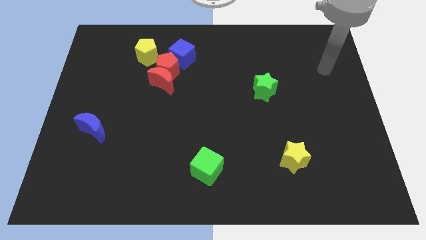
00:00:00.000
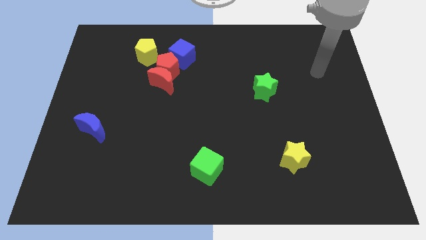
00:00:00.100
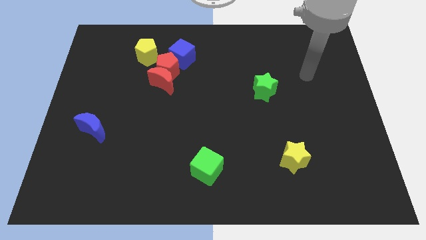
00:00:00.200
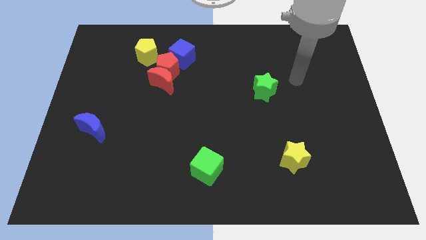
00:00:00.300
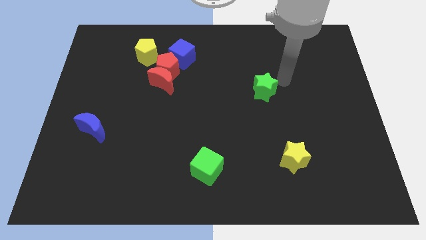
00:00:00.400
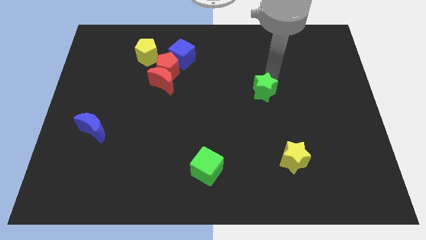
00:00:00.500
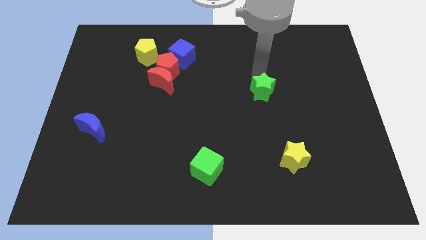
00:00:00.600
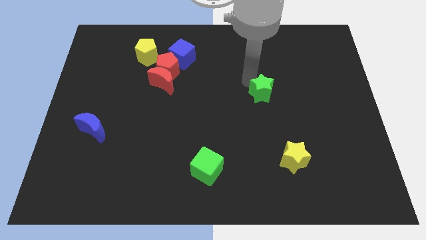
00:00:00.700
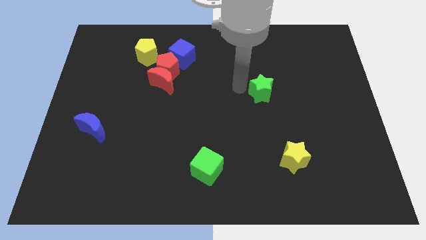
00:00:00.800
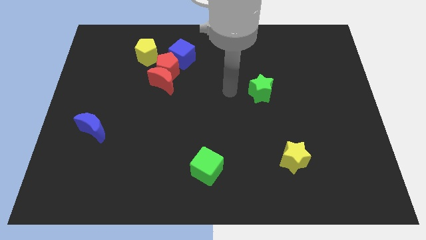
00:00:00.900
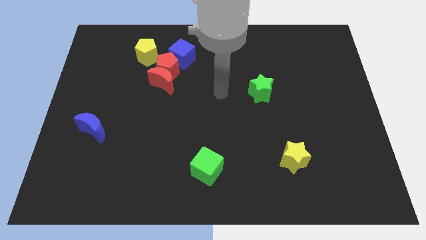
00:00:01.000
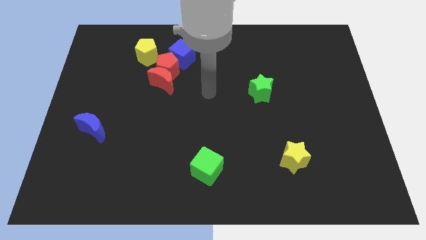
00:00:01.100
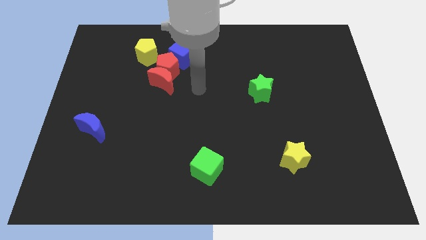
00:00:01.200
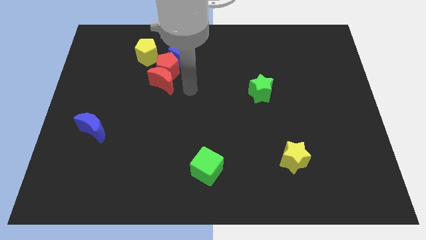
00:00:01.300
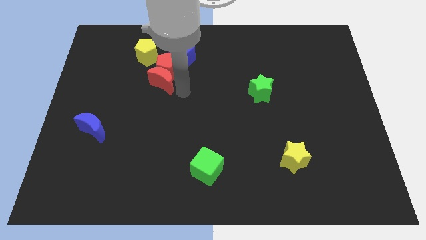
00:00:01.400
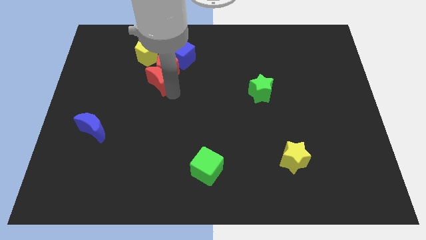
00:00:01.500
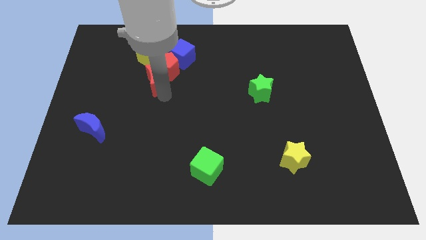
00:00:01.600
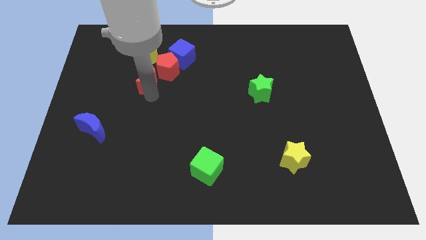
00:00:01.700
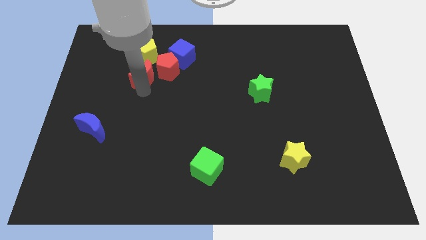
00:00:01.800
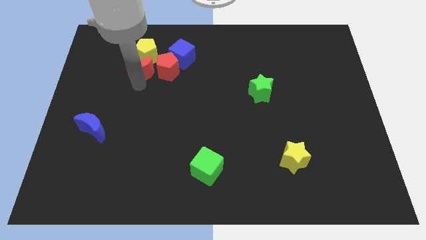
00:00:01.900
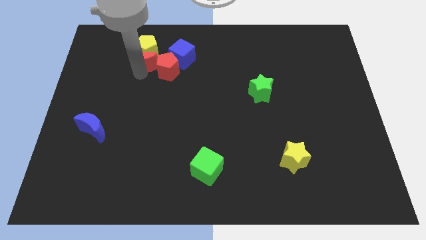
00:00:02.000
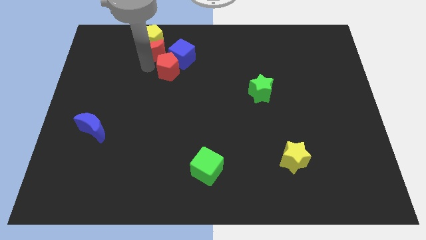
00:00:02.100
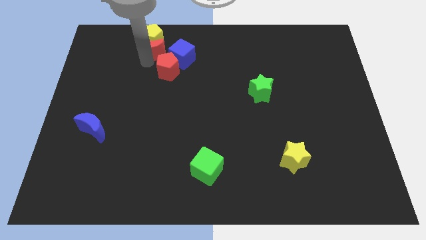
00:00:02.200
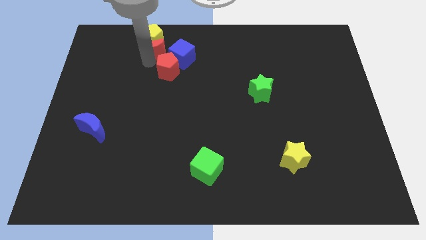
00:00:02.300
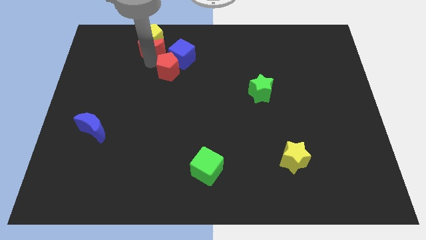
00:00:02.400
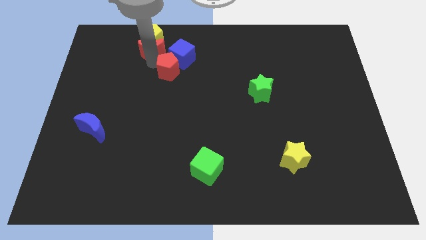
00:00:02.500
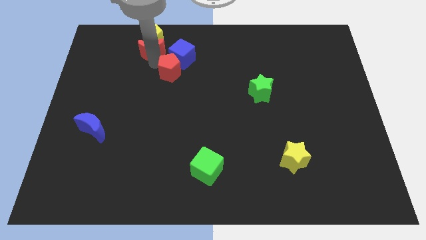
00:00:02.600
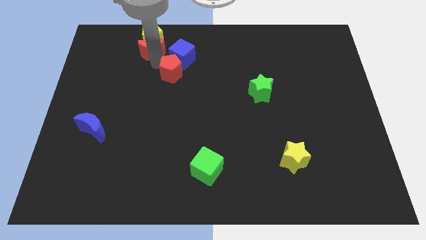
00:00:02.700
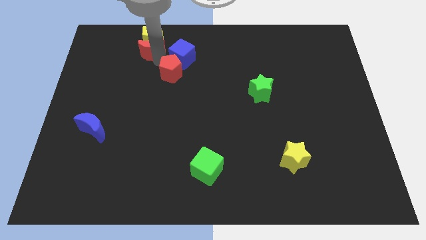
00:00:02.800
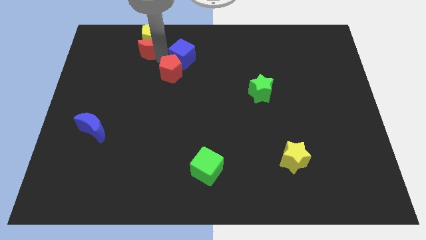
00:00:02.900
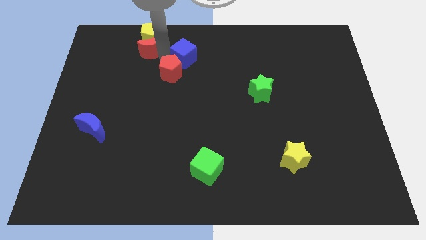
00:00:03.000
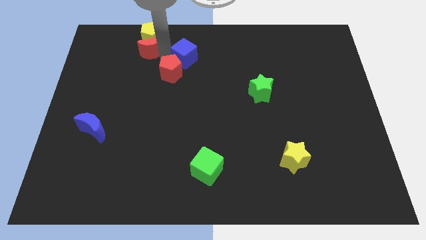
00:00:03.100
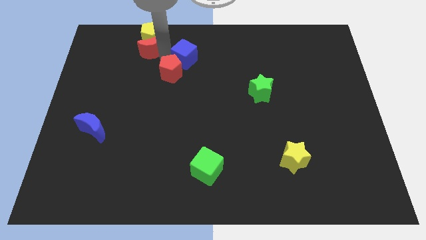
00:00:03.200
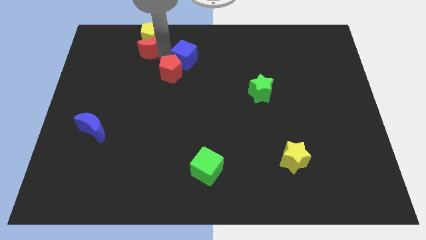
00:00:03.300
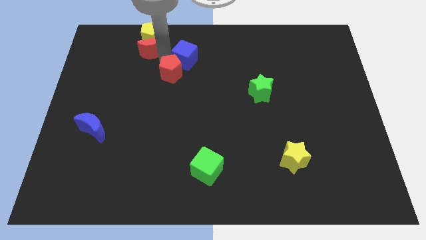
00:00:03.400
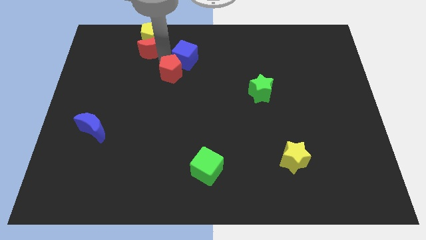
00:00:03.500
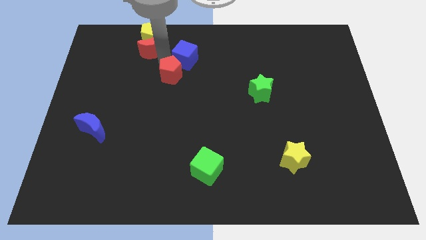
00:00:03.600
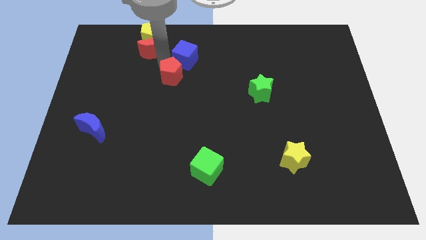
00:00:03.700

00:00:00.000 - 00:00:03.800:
pull the red pentagon apart from the red moon, blue cube, and yellow pentagon

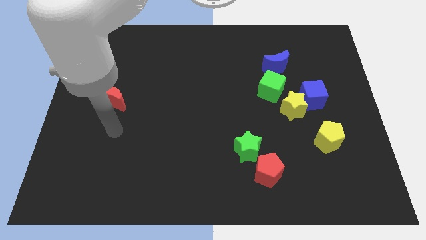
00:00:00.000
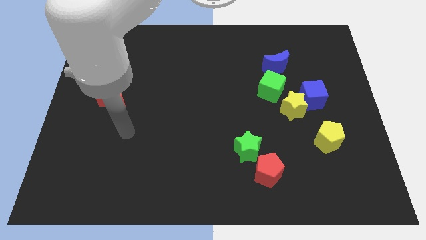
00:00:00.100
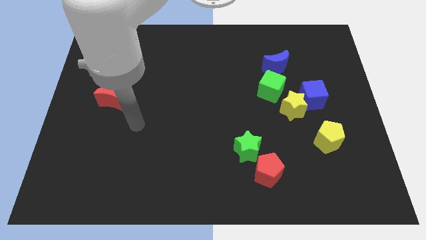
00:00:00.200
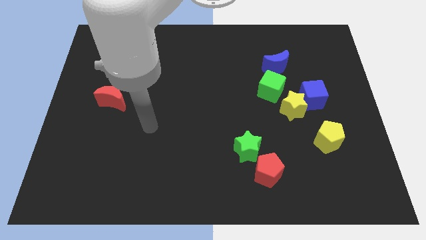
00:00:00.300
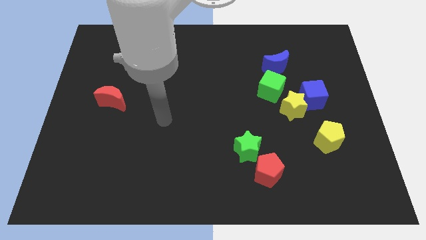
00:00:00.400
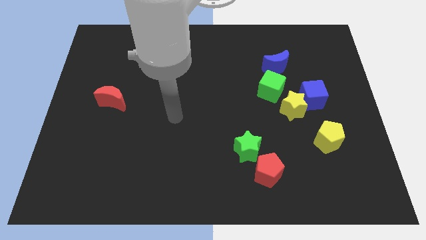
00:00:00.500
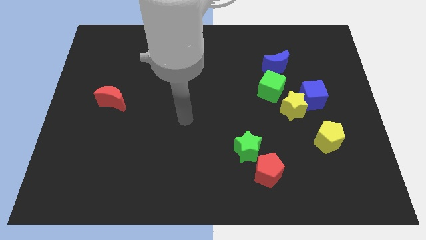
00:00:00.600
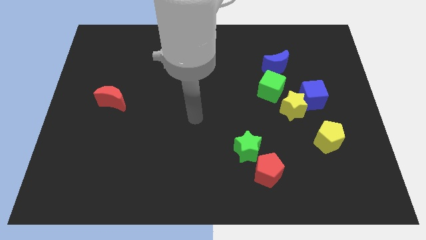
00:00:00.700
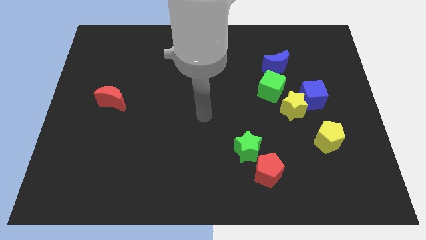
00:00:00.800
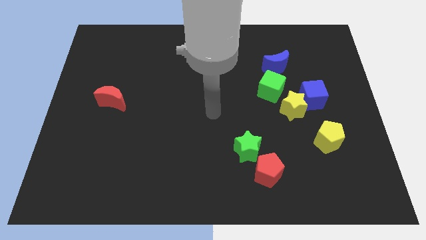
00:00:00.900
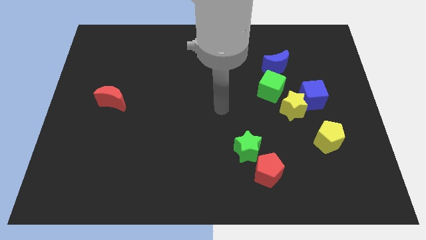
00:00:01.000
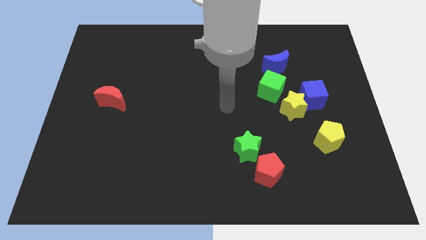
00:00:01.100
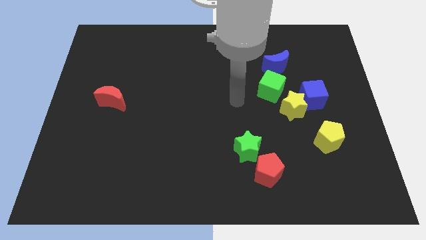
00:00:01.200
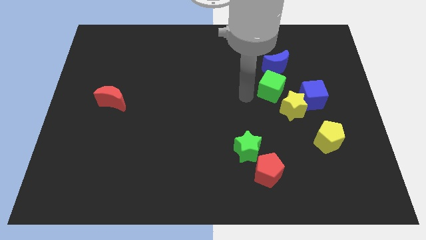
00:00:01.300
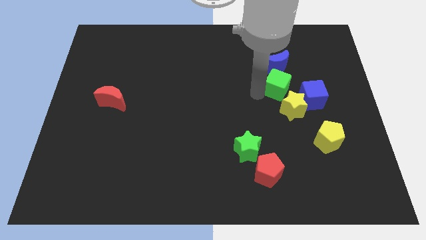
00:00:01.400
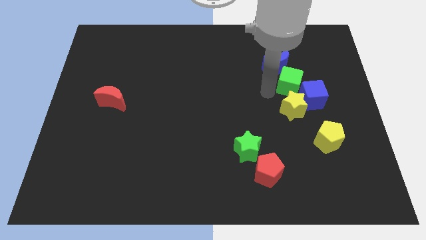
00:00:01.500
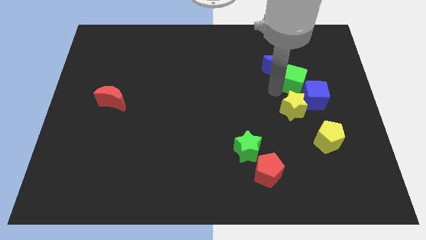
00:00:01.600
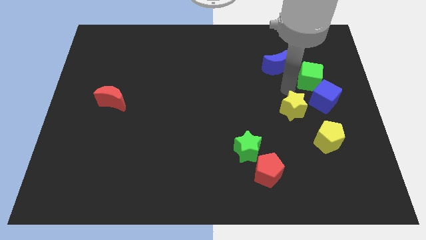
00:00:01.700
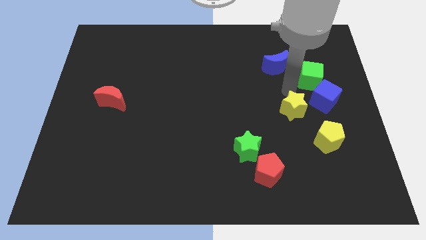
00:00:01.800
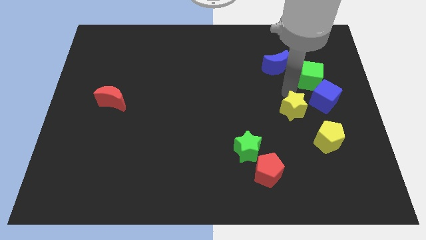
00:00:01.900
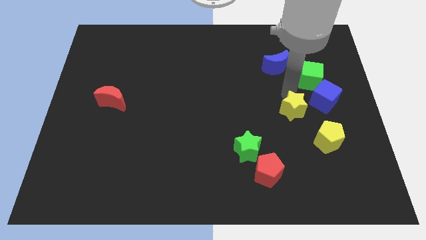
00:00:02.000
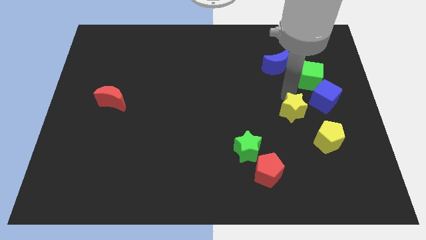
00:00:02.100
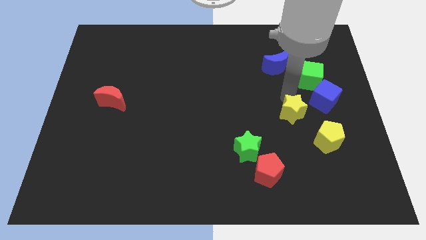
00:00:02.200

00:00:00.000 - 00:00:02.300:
pull the yellow star apart from the blue cube and green cube

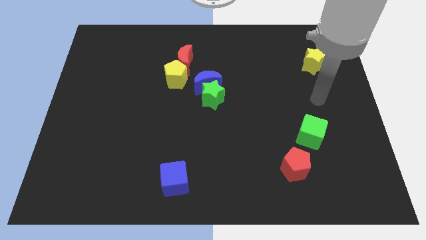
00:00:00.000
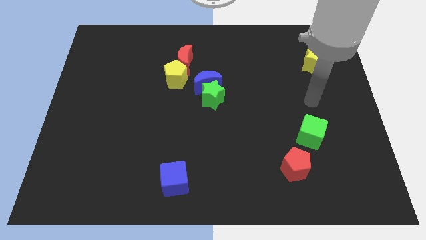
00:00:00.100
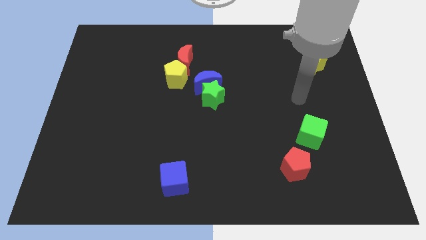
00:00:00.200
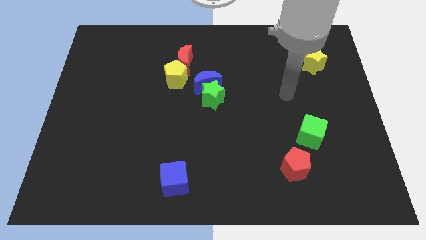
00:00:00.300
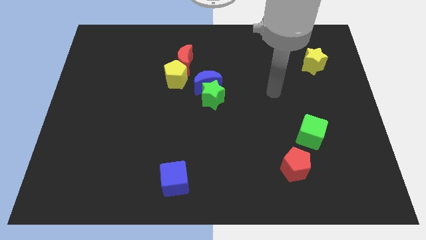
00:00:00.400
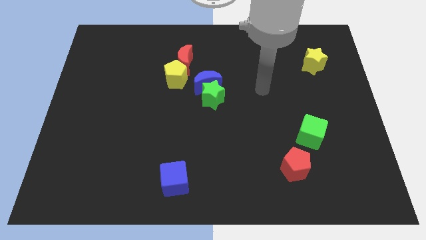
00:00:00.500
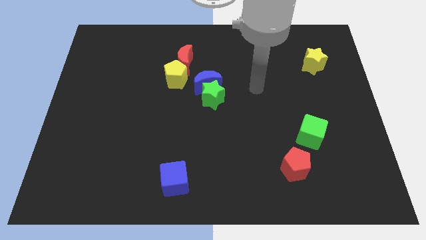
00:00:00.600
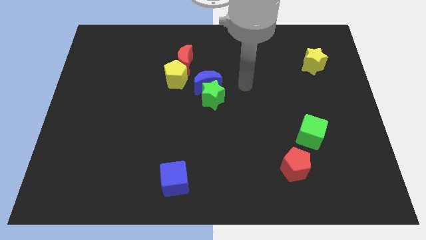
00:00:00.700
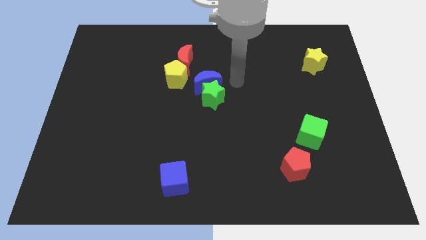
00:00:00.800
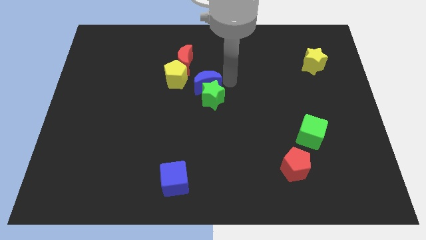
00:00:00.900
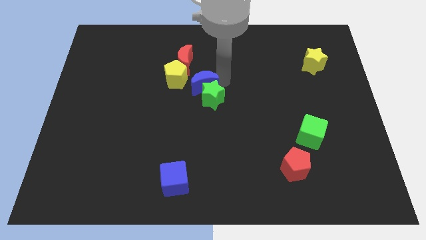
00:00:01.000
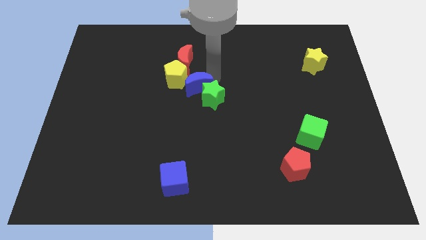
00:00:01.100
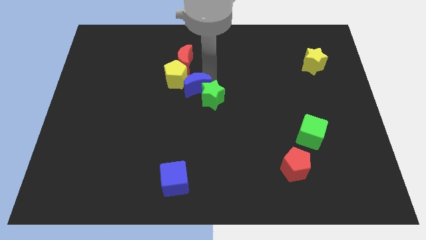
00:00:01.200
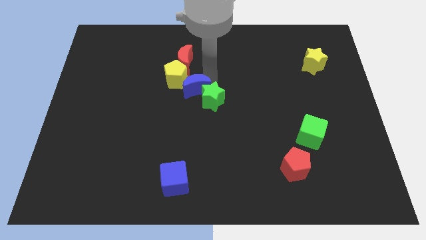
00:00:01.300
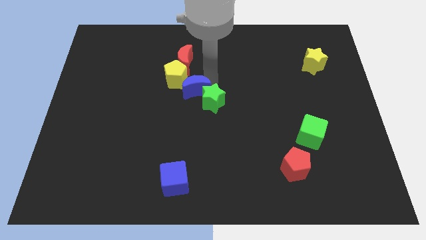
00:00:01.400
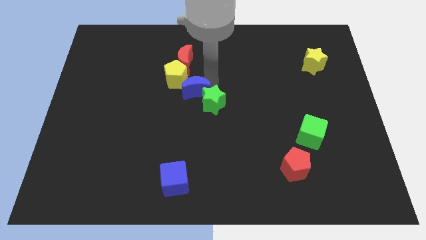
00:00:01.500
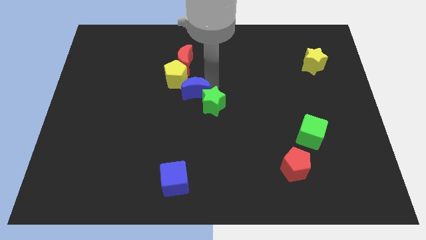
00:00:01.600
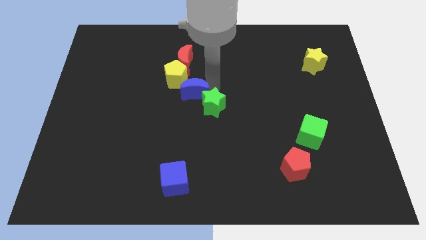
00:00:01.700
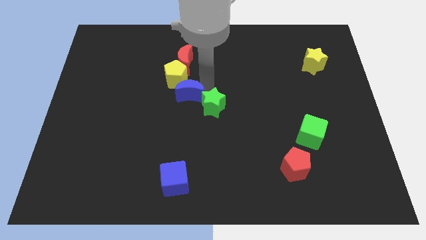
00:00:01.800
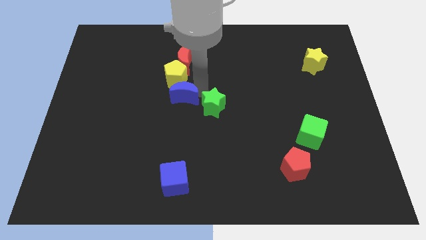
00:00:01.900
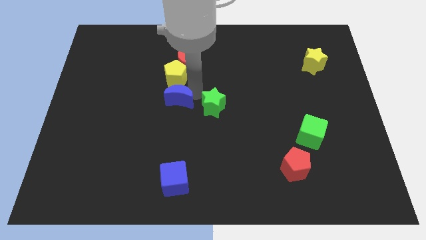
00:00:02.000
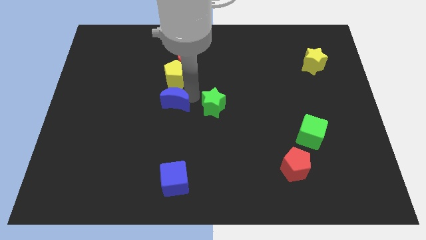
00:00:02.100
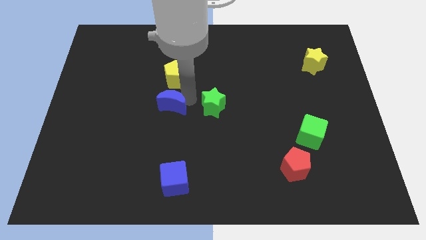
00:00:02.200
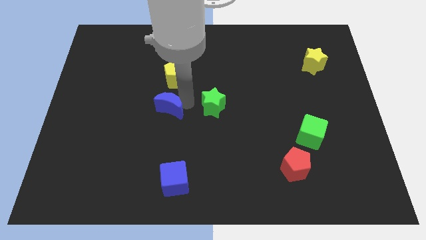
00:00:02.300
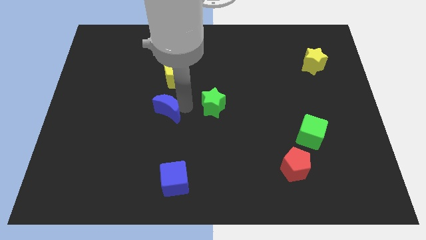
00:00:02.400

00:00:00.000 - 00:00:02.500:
separate the green star from the blue moon

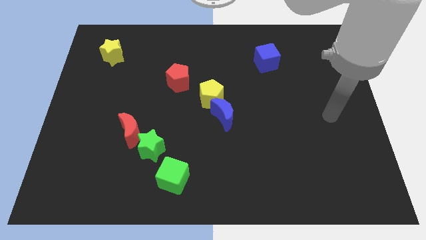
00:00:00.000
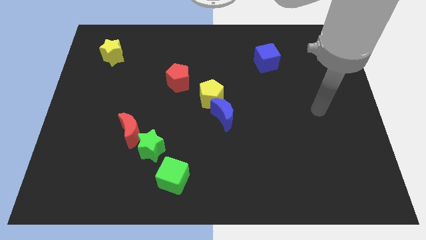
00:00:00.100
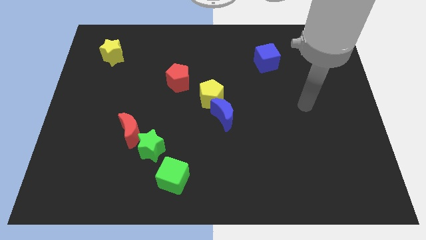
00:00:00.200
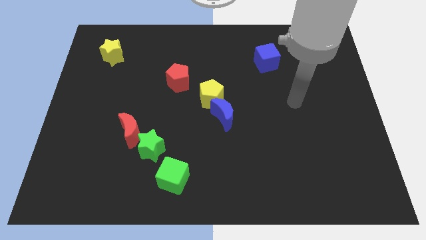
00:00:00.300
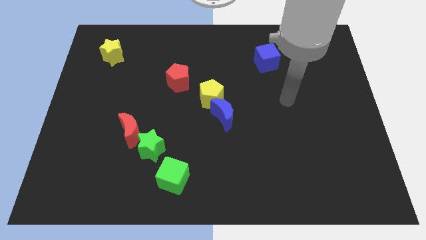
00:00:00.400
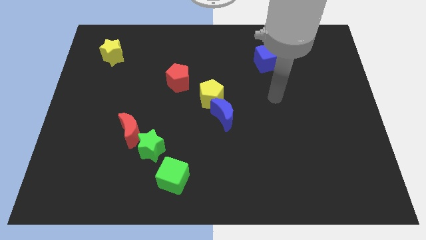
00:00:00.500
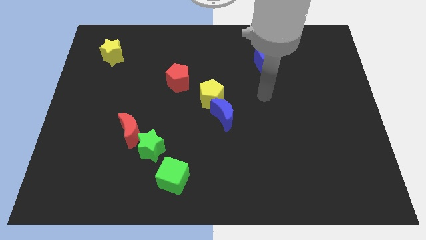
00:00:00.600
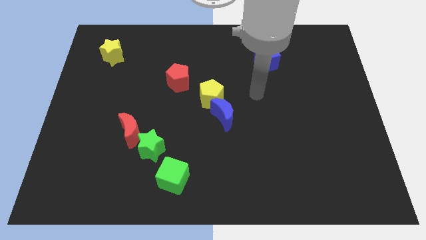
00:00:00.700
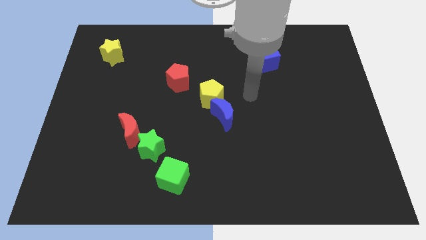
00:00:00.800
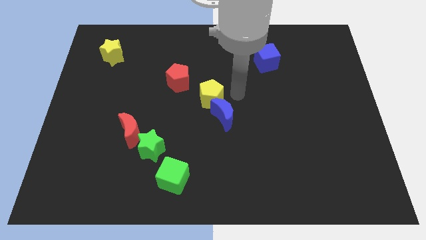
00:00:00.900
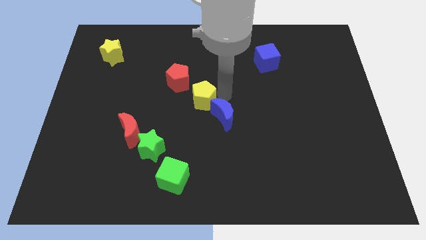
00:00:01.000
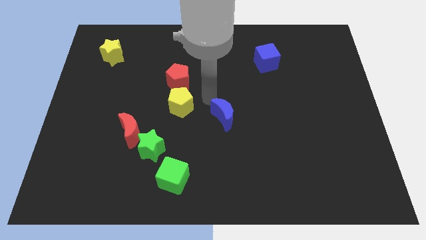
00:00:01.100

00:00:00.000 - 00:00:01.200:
pull the blue moon apart from the yellow pentagon
